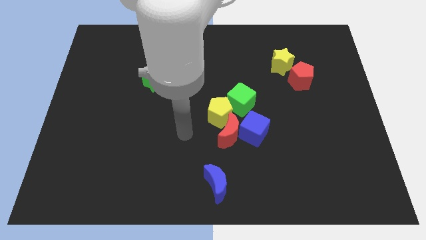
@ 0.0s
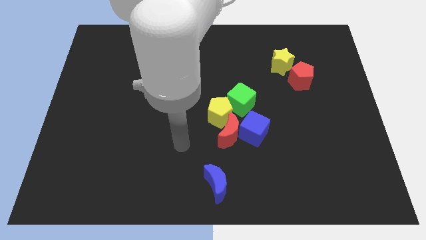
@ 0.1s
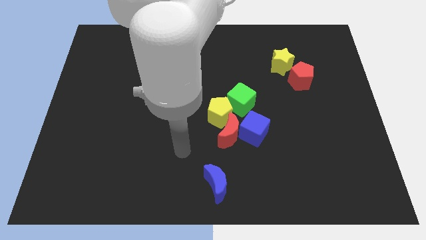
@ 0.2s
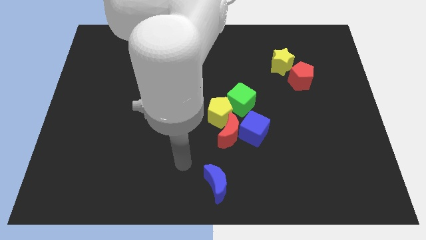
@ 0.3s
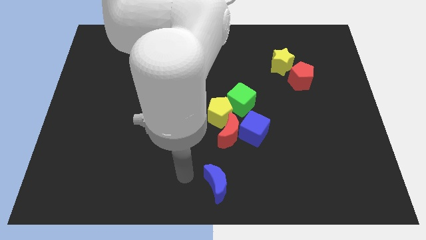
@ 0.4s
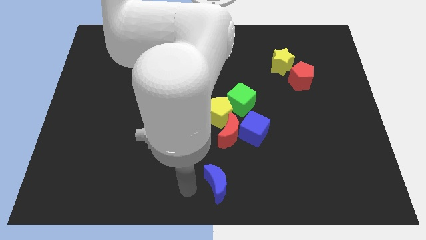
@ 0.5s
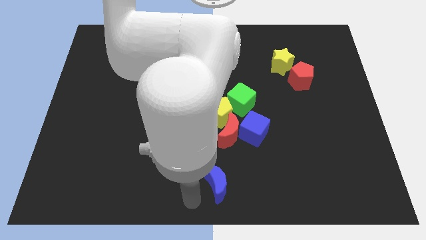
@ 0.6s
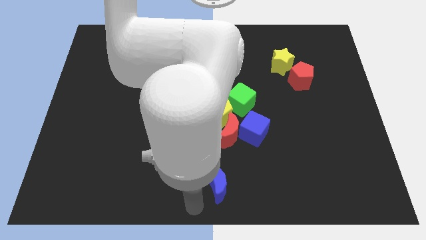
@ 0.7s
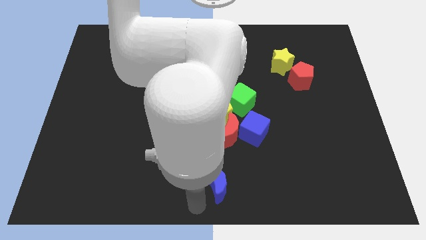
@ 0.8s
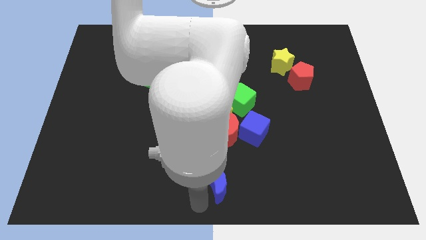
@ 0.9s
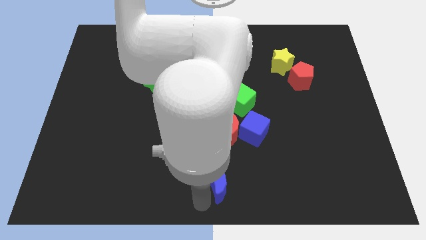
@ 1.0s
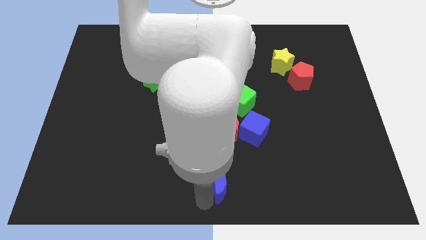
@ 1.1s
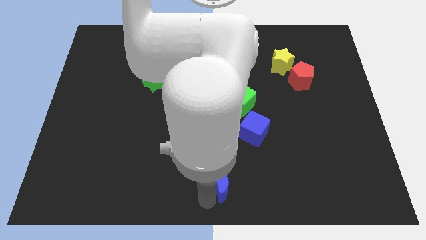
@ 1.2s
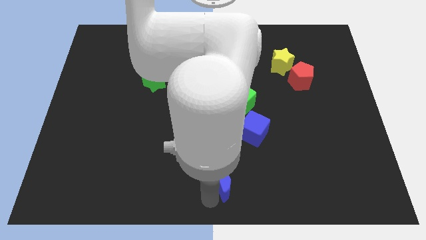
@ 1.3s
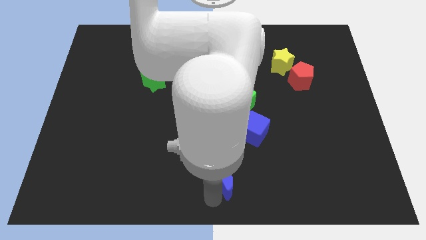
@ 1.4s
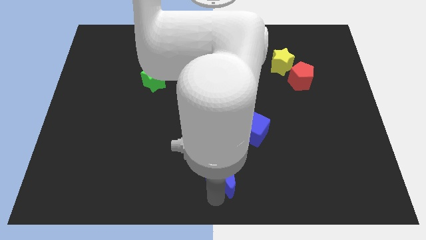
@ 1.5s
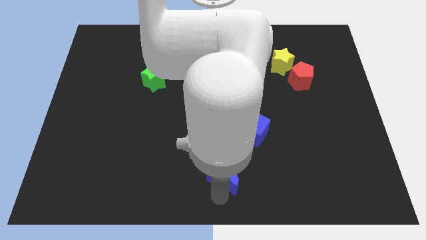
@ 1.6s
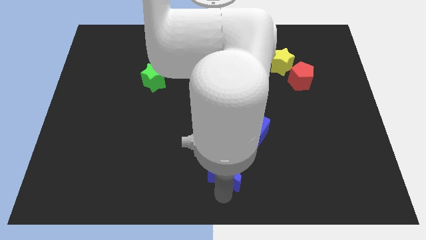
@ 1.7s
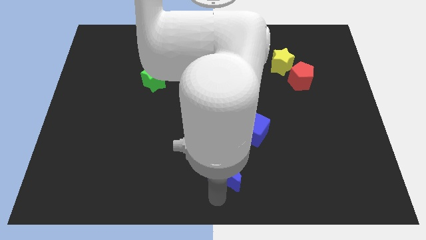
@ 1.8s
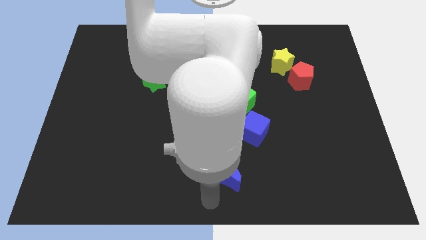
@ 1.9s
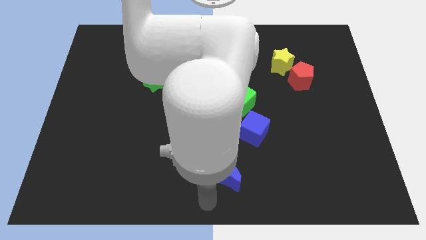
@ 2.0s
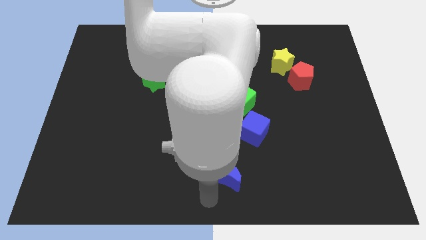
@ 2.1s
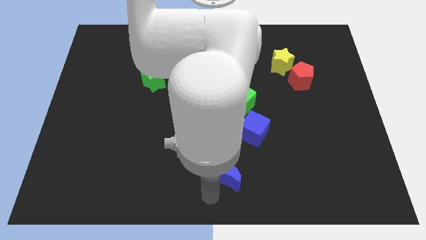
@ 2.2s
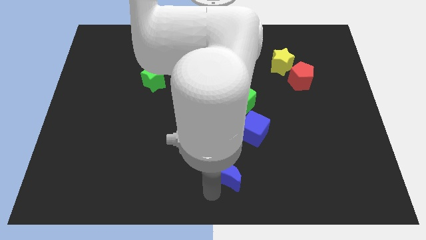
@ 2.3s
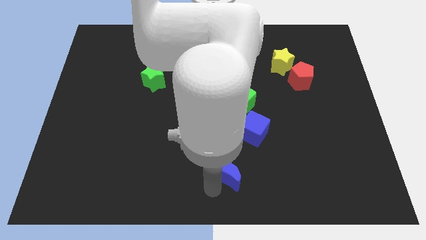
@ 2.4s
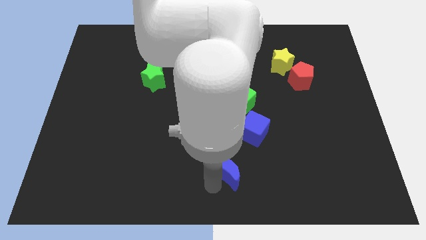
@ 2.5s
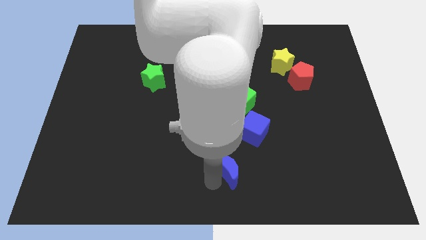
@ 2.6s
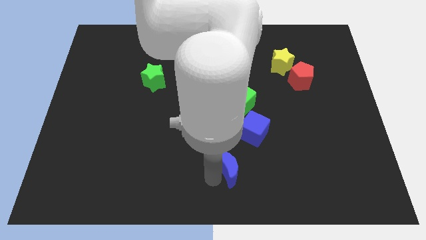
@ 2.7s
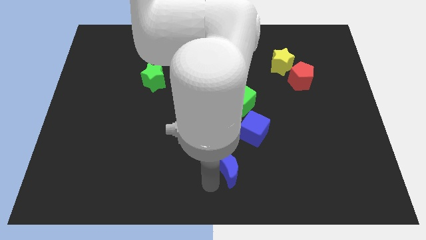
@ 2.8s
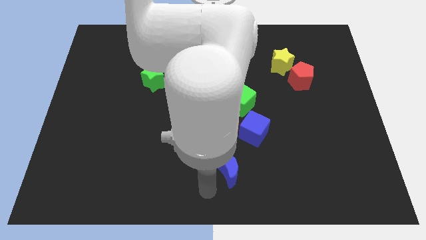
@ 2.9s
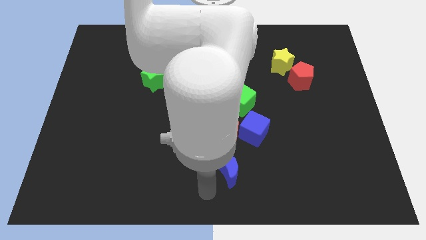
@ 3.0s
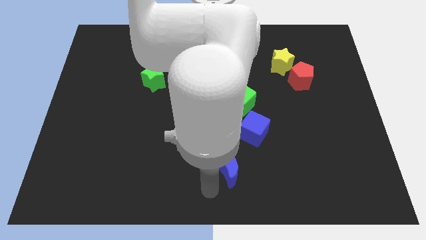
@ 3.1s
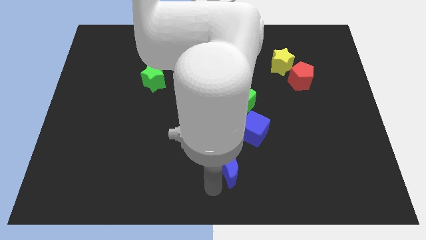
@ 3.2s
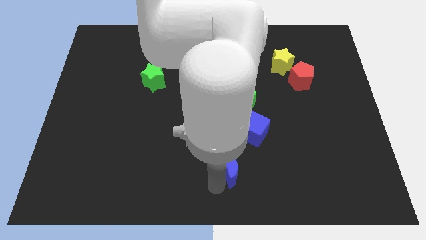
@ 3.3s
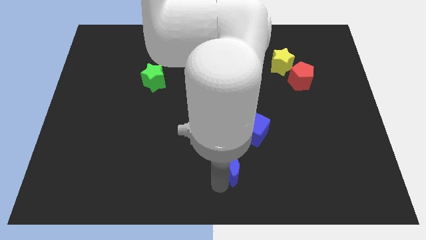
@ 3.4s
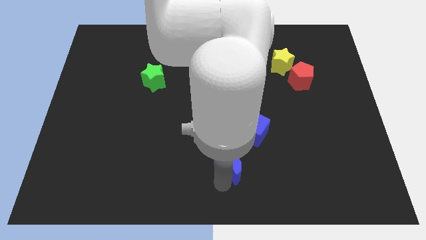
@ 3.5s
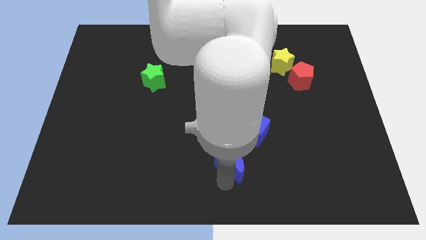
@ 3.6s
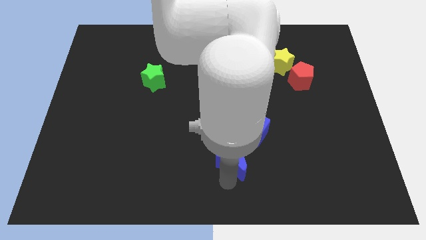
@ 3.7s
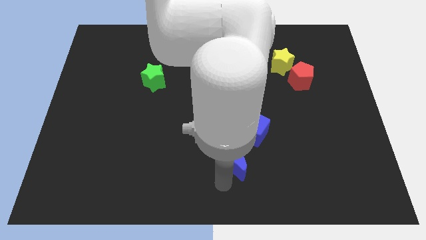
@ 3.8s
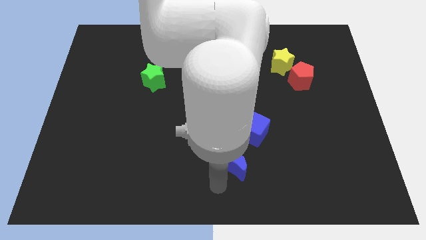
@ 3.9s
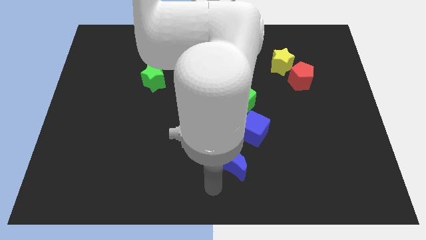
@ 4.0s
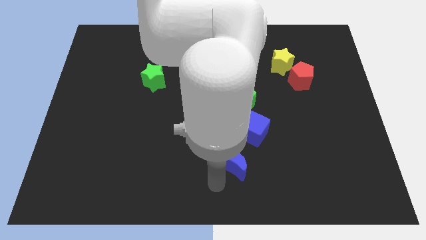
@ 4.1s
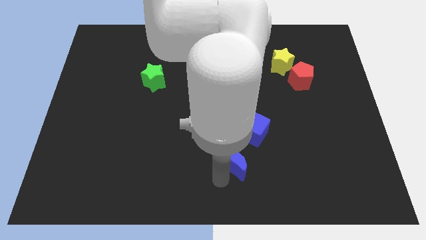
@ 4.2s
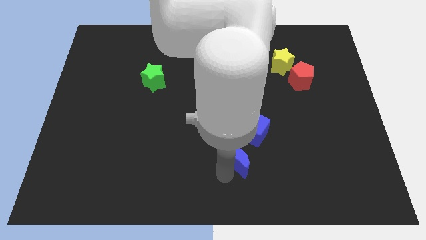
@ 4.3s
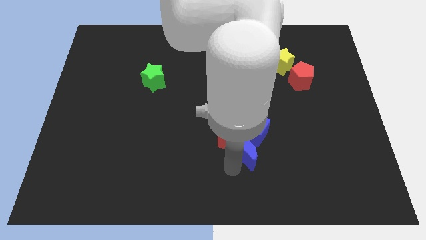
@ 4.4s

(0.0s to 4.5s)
push the blue moon towards the blue cube

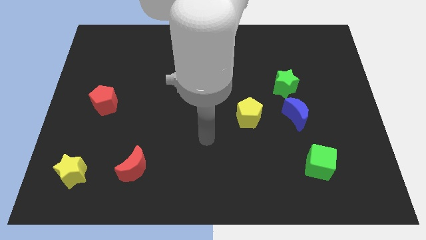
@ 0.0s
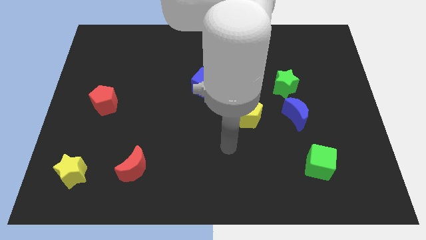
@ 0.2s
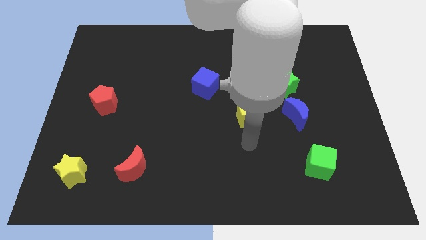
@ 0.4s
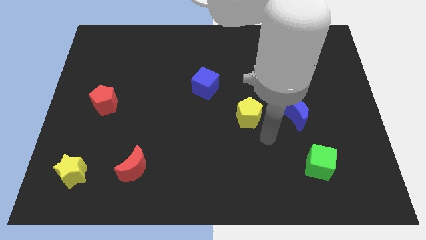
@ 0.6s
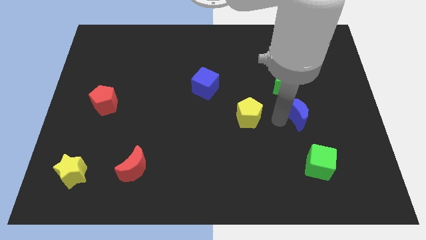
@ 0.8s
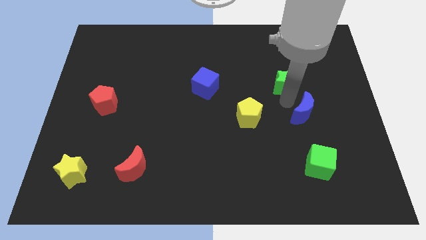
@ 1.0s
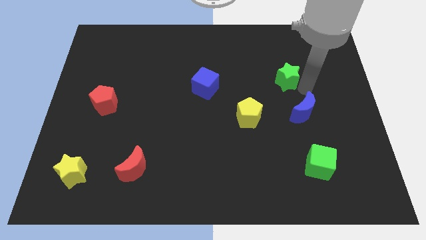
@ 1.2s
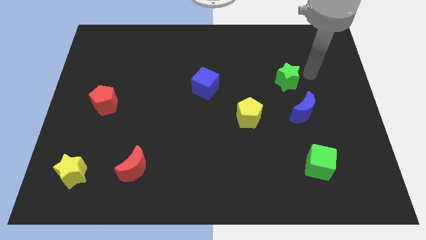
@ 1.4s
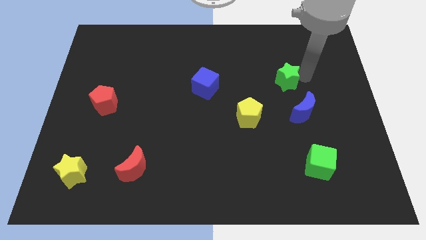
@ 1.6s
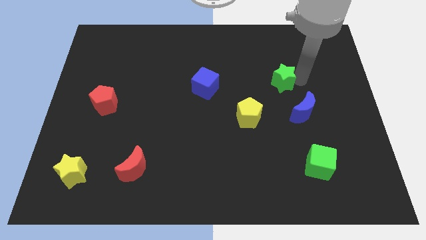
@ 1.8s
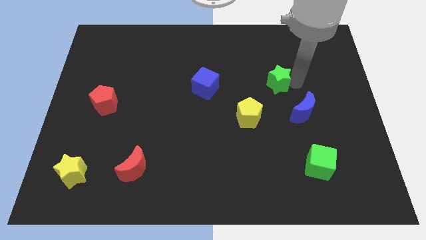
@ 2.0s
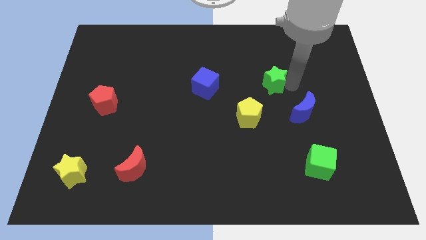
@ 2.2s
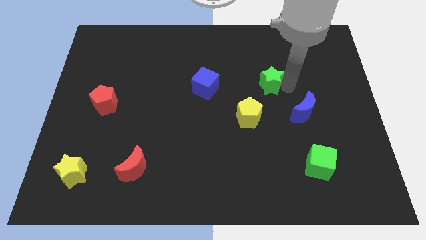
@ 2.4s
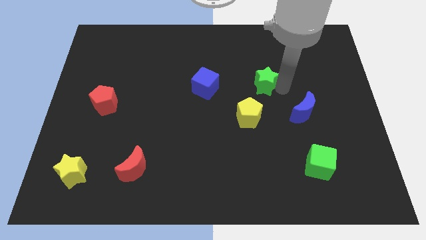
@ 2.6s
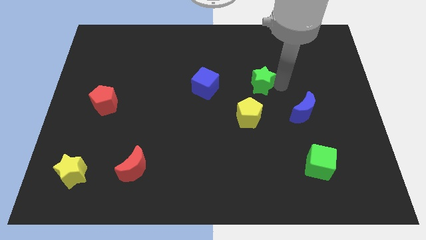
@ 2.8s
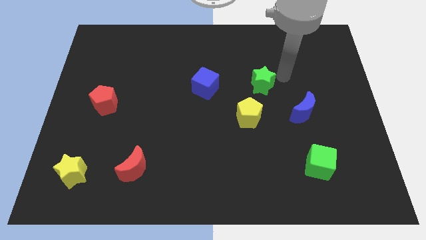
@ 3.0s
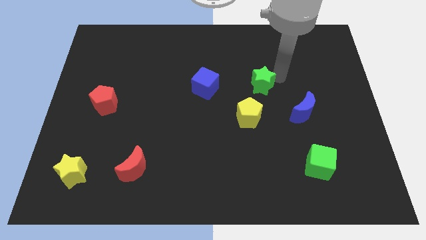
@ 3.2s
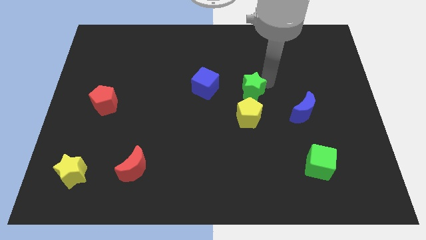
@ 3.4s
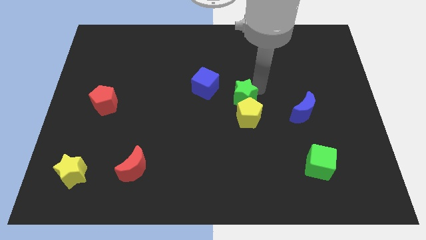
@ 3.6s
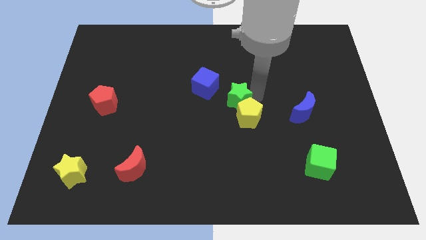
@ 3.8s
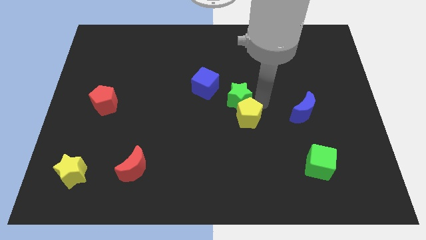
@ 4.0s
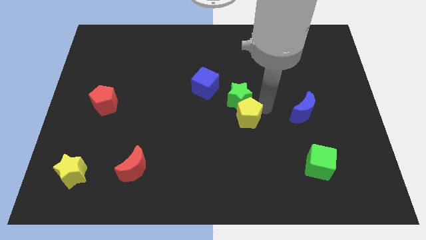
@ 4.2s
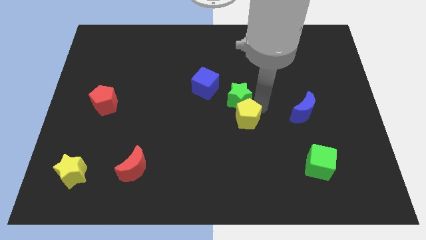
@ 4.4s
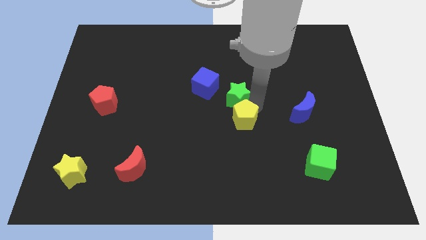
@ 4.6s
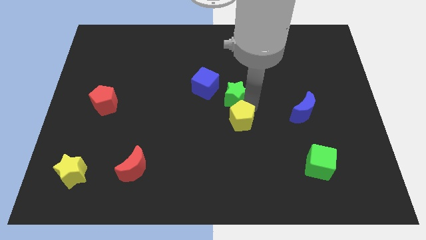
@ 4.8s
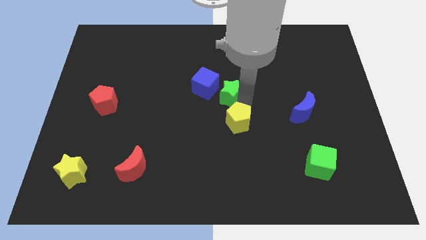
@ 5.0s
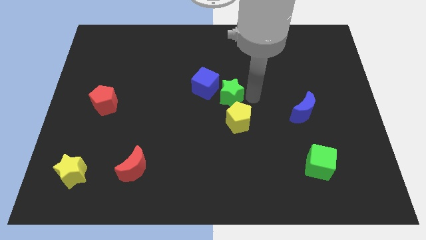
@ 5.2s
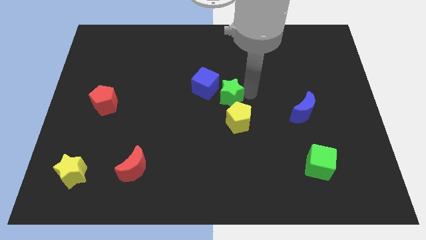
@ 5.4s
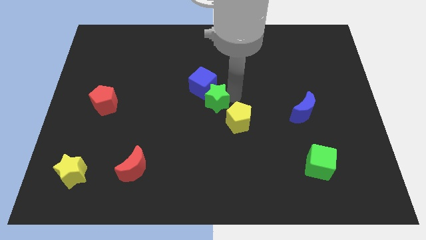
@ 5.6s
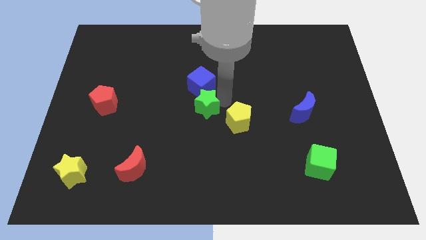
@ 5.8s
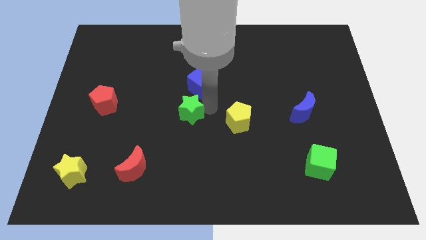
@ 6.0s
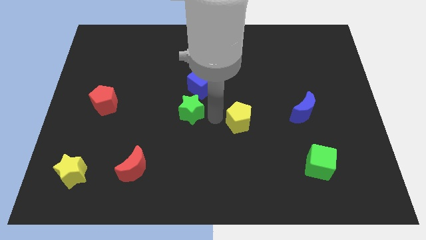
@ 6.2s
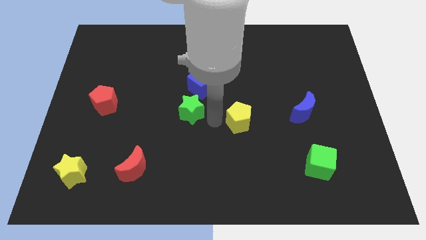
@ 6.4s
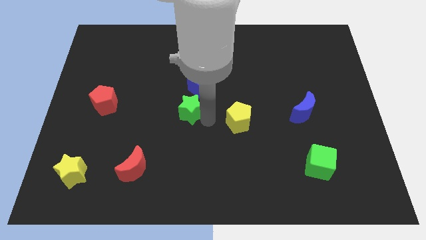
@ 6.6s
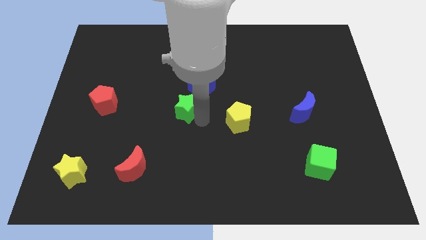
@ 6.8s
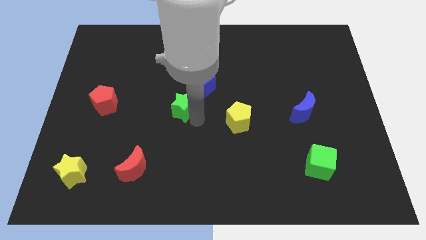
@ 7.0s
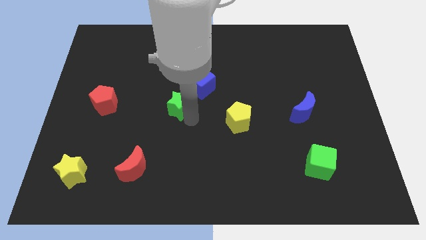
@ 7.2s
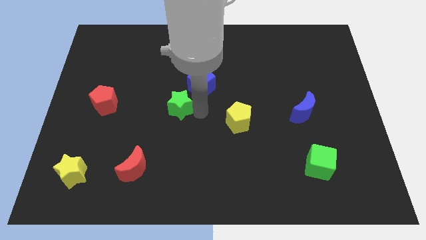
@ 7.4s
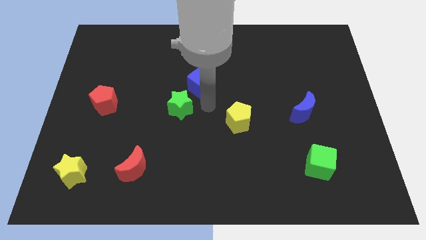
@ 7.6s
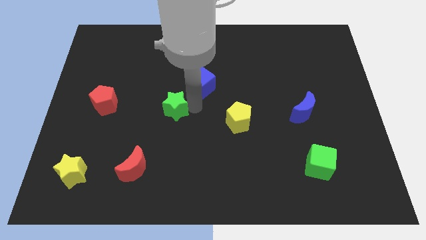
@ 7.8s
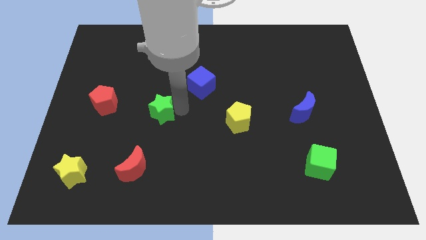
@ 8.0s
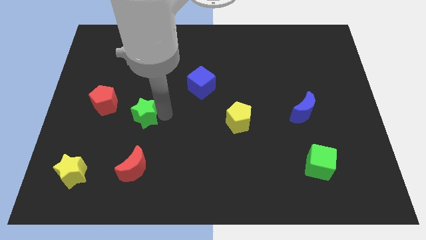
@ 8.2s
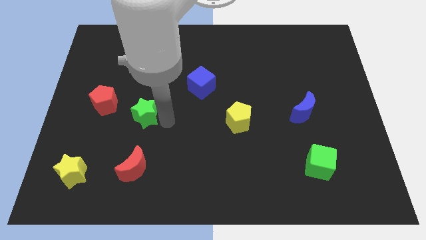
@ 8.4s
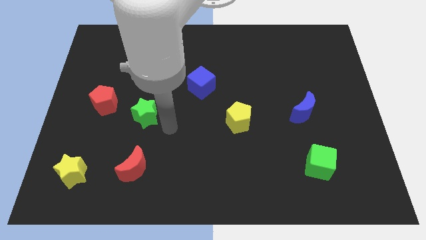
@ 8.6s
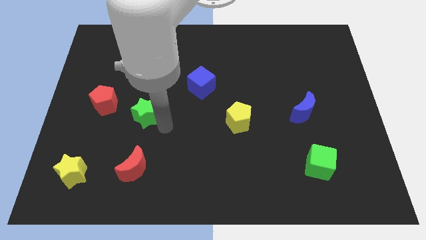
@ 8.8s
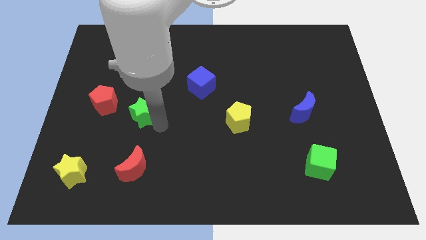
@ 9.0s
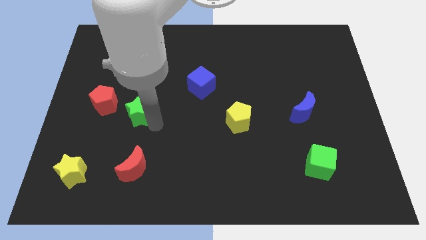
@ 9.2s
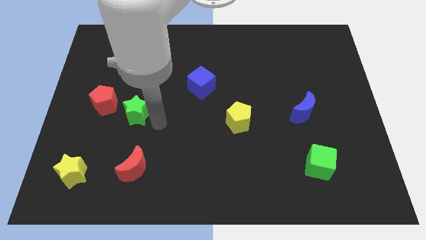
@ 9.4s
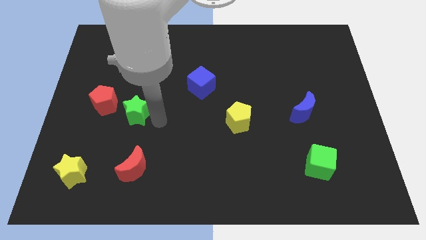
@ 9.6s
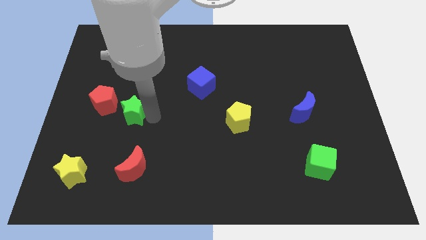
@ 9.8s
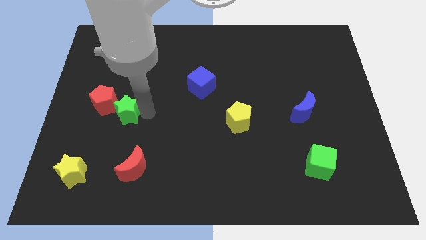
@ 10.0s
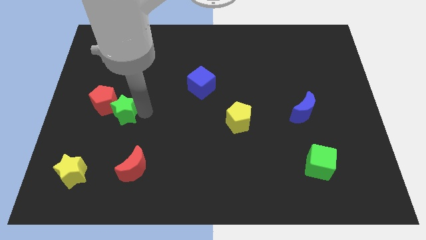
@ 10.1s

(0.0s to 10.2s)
push the green star next to the red pentagon
